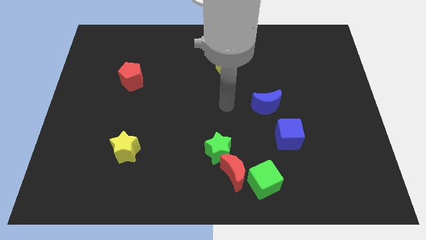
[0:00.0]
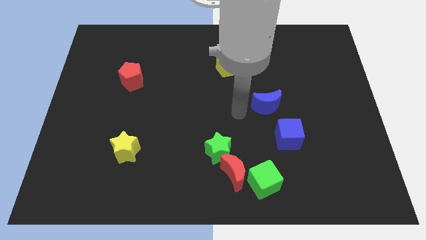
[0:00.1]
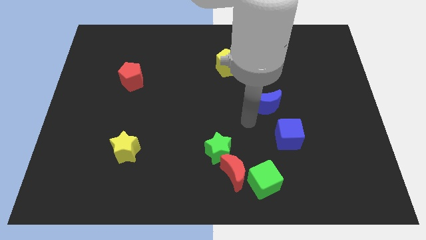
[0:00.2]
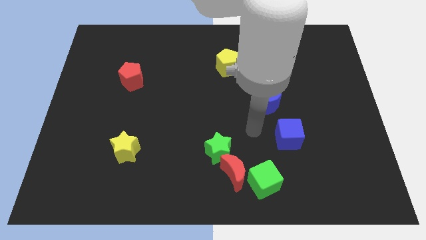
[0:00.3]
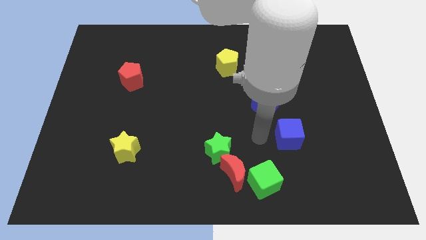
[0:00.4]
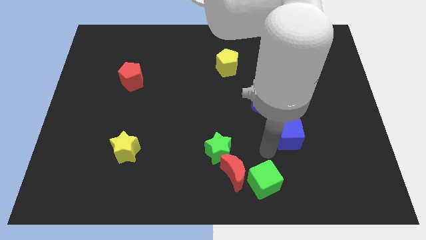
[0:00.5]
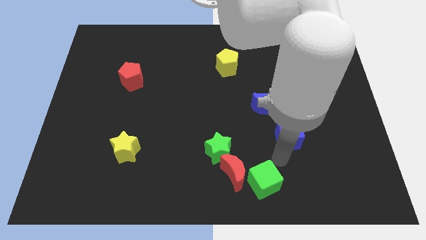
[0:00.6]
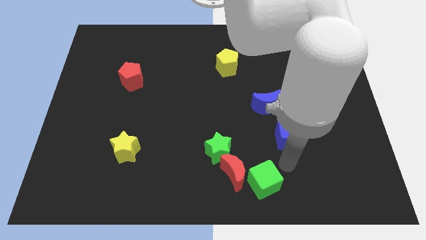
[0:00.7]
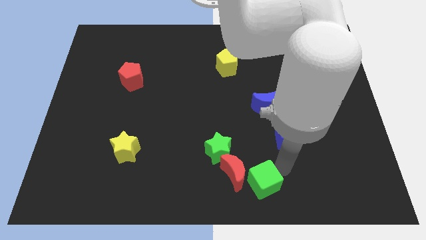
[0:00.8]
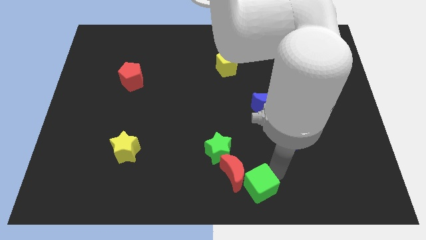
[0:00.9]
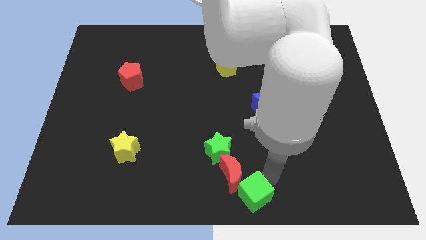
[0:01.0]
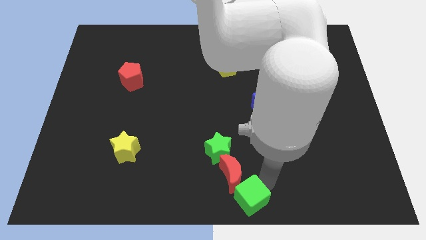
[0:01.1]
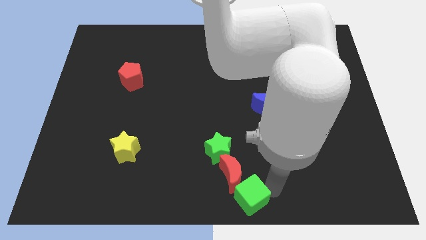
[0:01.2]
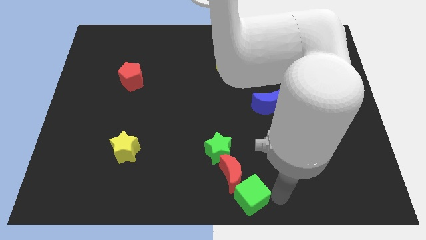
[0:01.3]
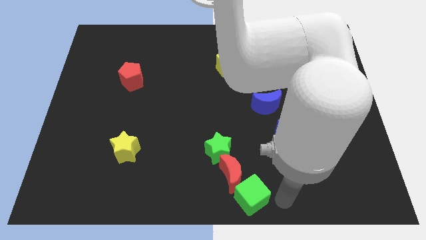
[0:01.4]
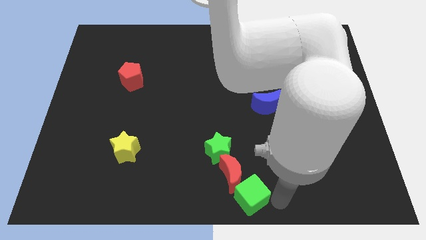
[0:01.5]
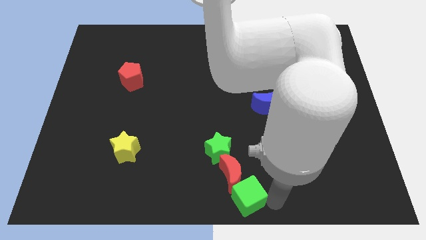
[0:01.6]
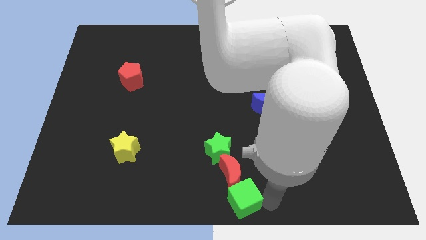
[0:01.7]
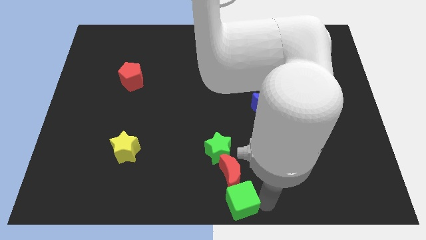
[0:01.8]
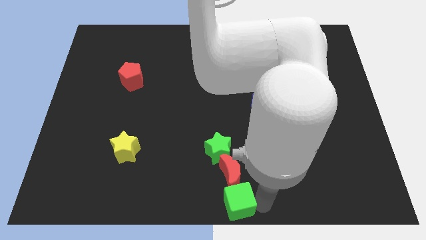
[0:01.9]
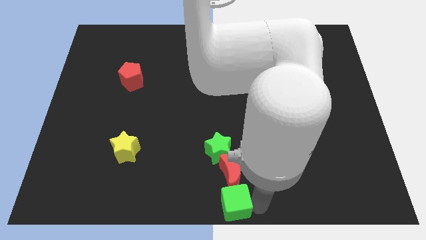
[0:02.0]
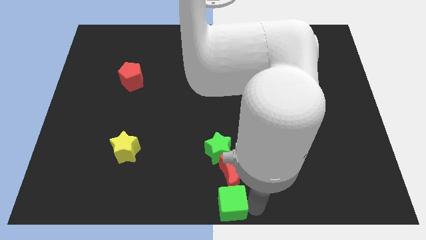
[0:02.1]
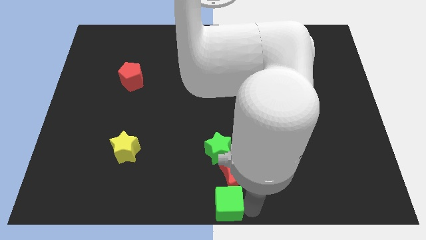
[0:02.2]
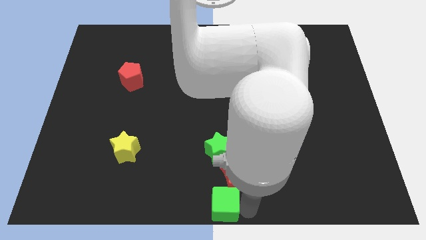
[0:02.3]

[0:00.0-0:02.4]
move the green cube a little bit to the left

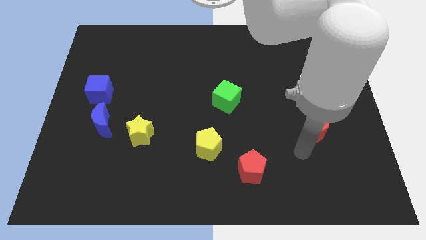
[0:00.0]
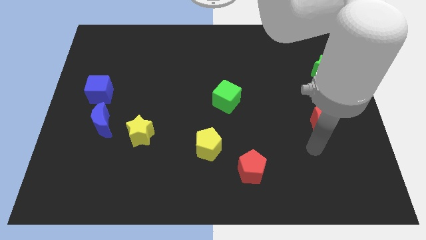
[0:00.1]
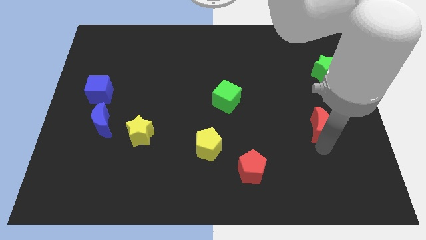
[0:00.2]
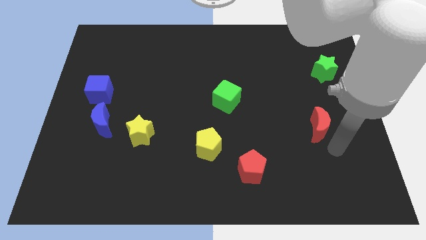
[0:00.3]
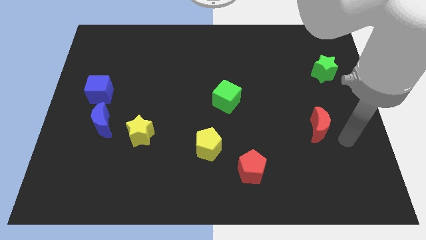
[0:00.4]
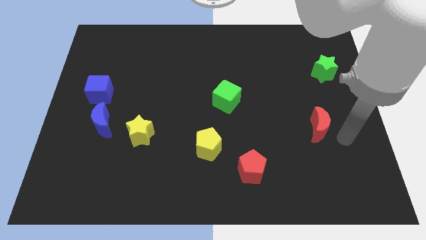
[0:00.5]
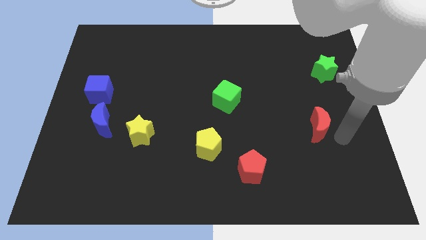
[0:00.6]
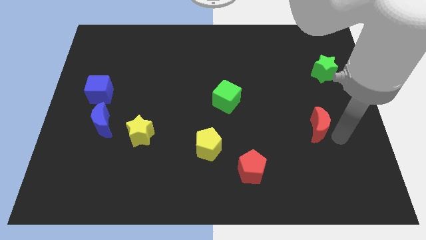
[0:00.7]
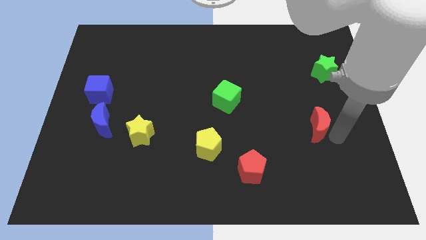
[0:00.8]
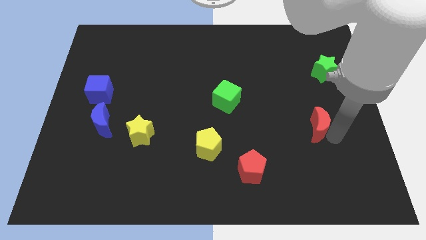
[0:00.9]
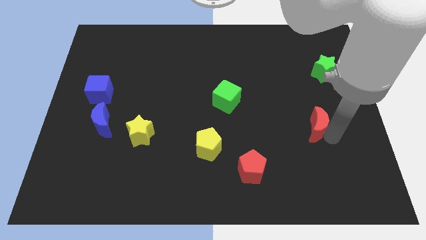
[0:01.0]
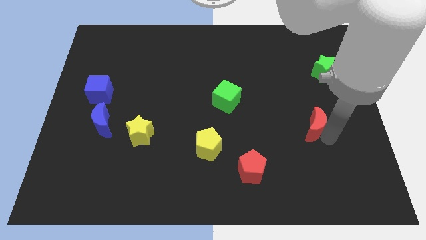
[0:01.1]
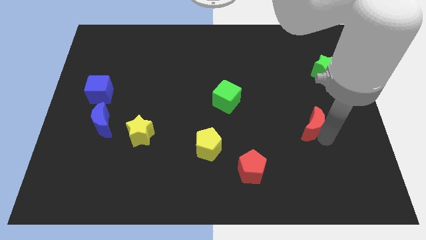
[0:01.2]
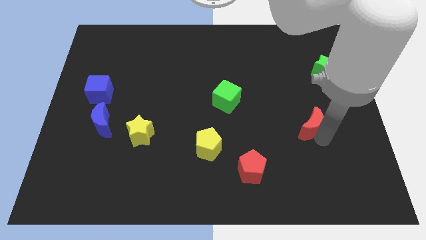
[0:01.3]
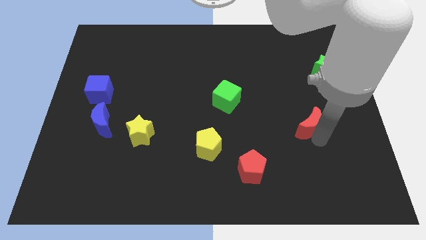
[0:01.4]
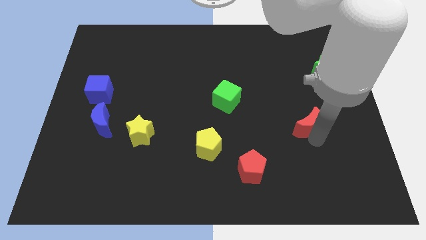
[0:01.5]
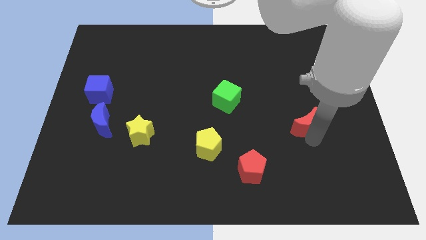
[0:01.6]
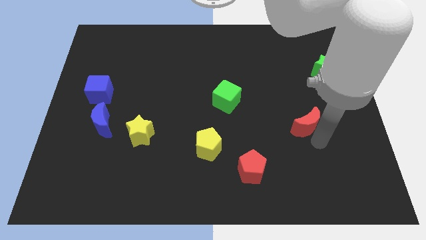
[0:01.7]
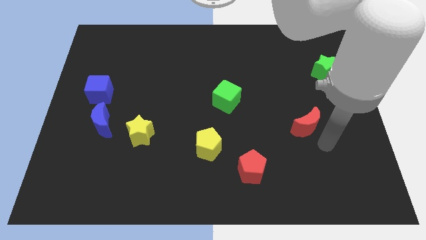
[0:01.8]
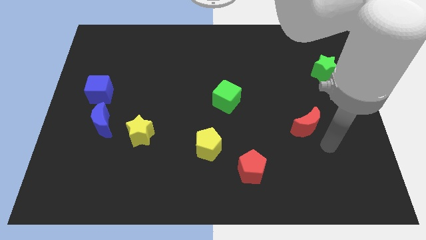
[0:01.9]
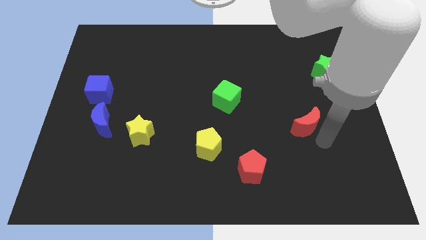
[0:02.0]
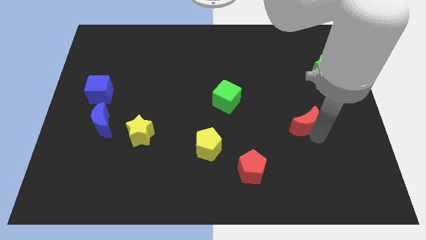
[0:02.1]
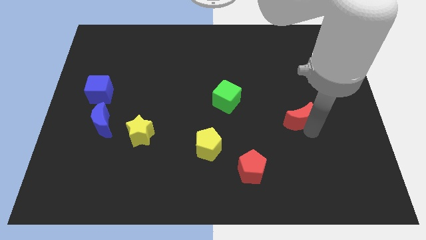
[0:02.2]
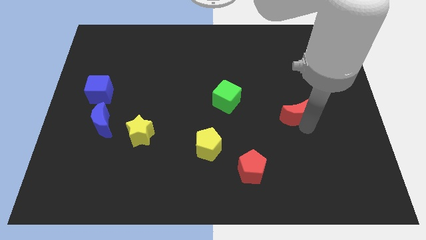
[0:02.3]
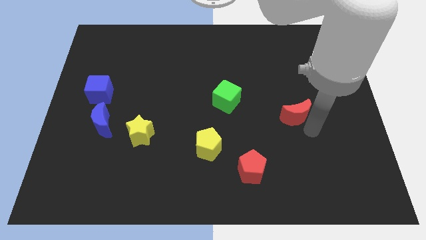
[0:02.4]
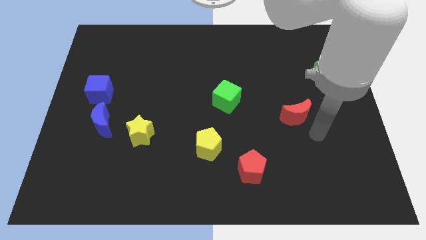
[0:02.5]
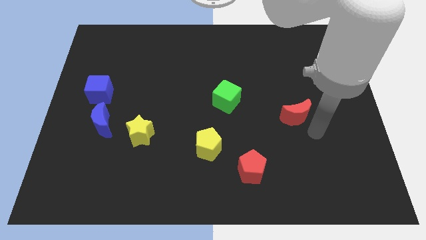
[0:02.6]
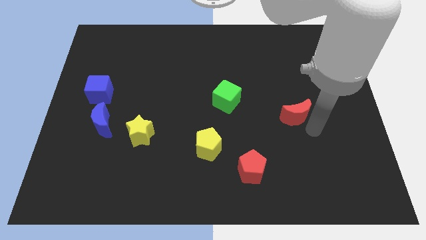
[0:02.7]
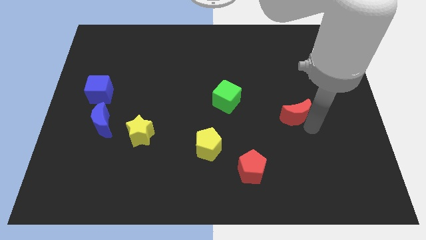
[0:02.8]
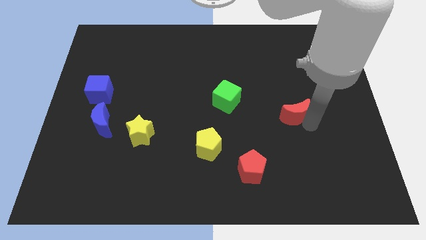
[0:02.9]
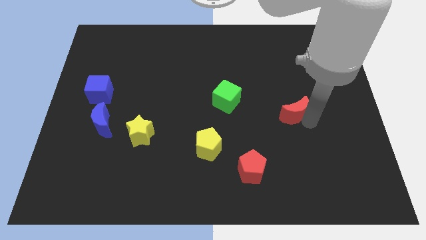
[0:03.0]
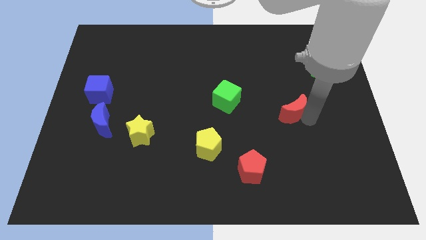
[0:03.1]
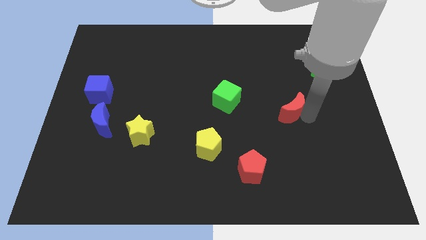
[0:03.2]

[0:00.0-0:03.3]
slightly slide the red moon upwards and left diagonally

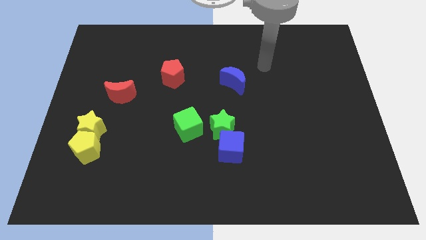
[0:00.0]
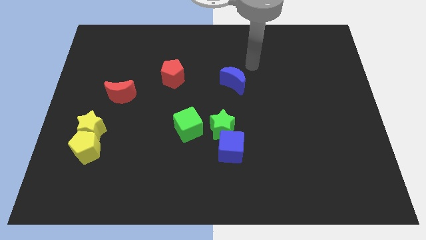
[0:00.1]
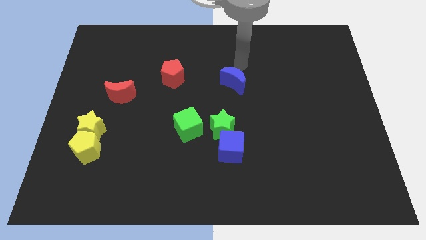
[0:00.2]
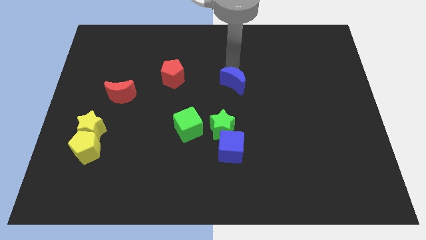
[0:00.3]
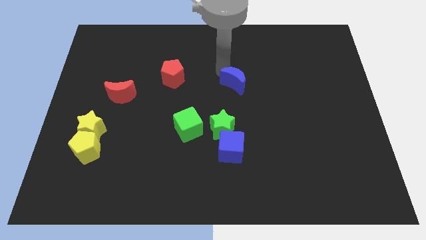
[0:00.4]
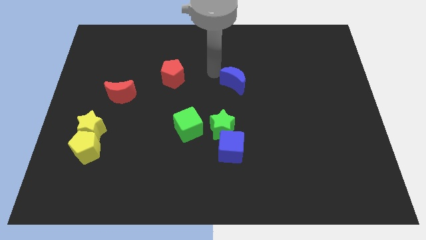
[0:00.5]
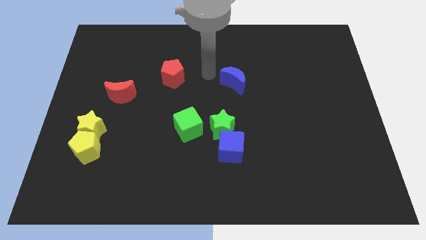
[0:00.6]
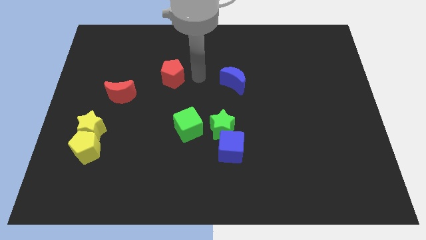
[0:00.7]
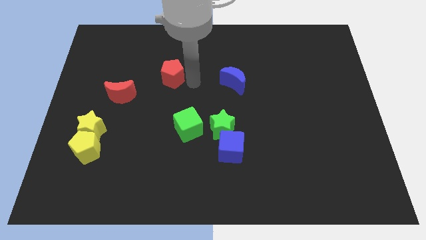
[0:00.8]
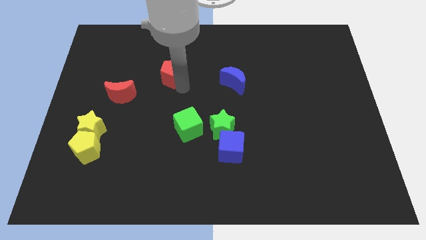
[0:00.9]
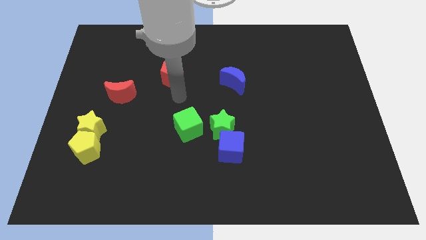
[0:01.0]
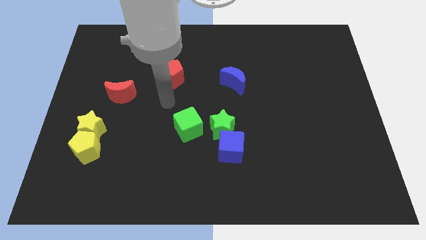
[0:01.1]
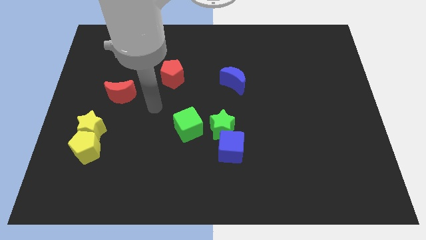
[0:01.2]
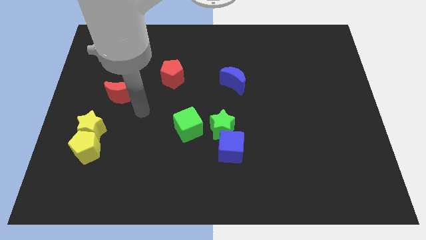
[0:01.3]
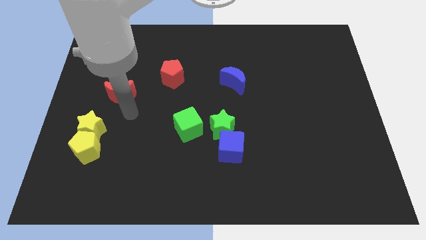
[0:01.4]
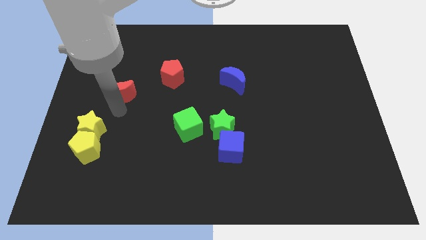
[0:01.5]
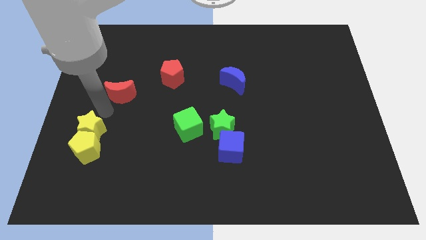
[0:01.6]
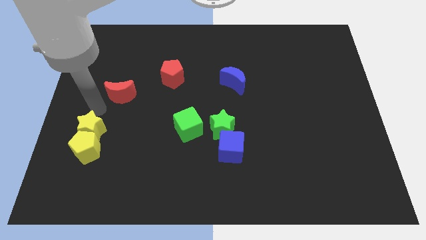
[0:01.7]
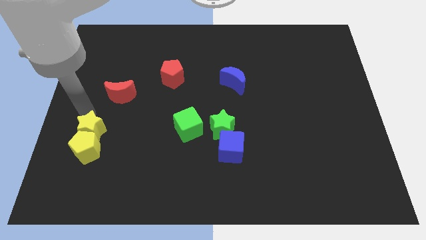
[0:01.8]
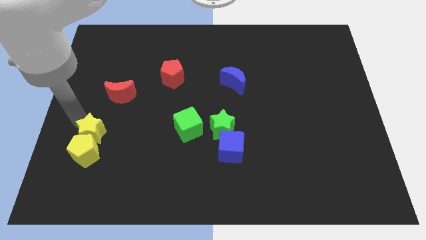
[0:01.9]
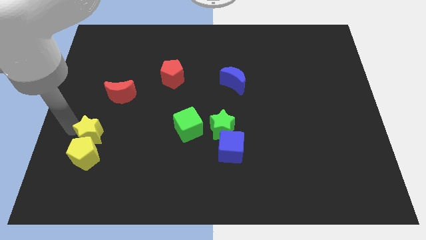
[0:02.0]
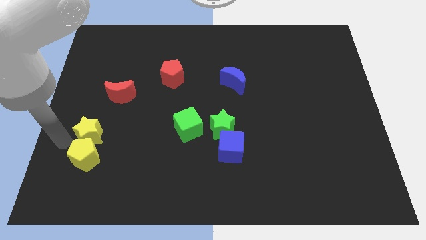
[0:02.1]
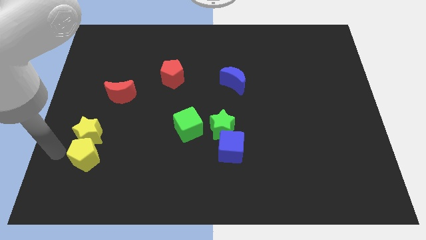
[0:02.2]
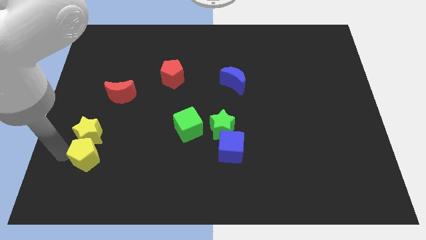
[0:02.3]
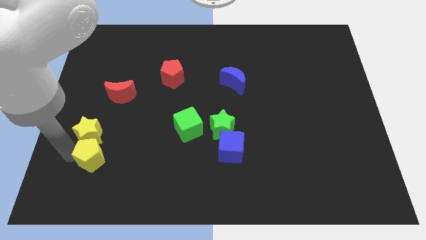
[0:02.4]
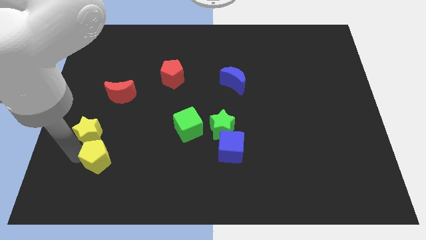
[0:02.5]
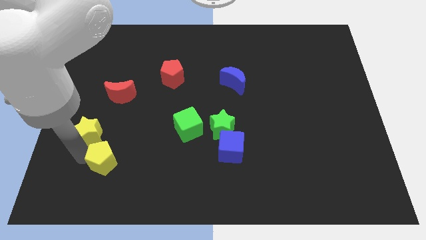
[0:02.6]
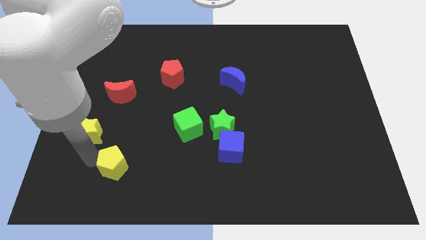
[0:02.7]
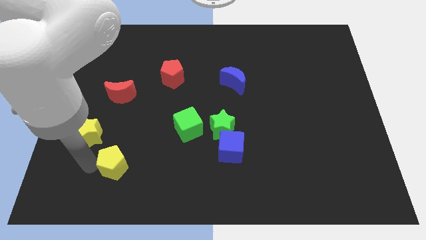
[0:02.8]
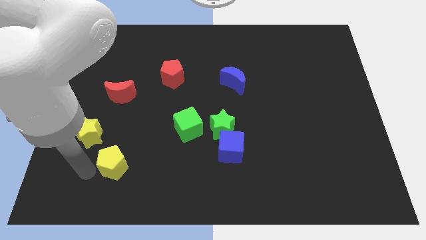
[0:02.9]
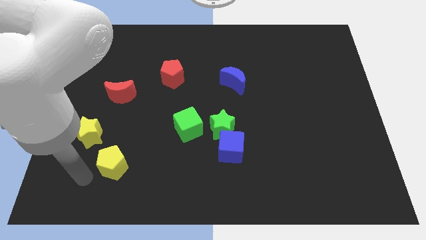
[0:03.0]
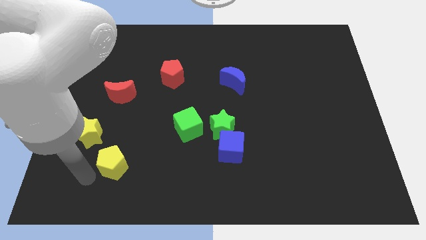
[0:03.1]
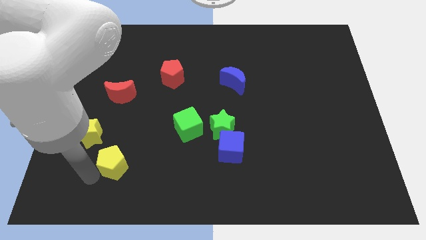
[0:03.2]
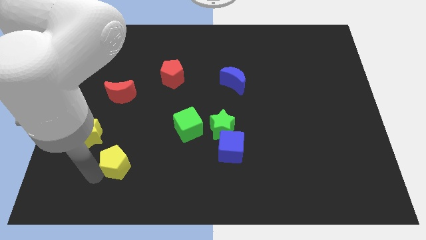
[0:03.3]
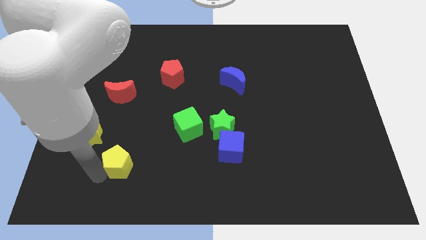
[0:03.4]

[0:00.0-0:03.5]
move the yellow pentagon a bit to the right
